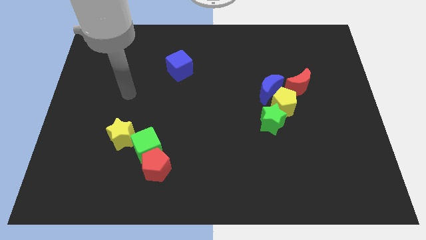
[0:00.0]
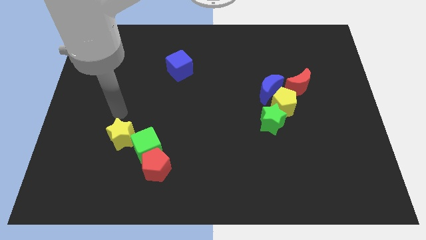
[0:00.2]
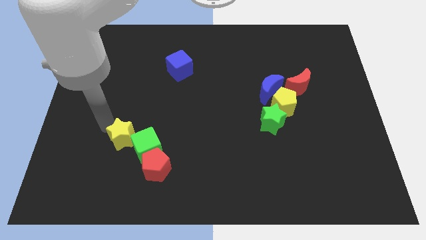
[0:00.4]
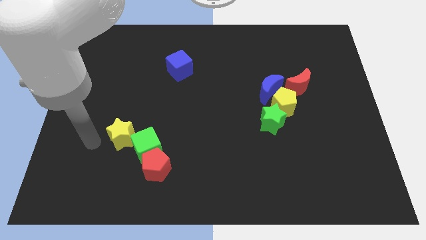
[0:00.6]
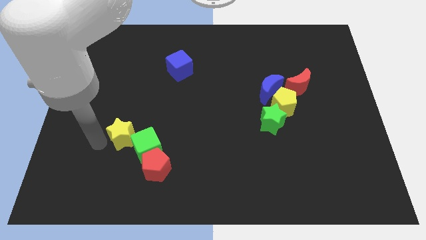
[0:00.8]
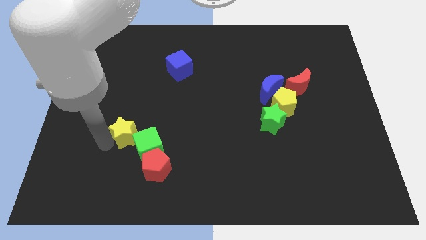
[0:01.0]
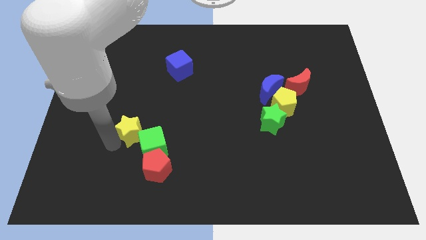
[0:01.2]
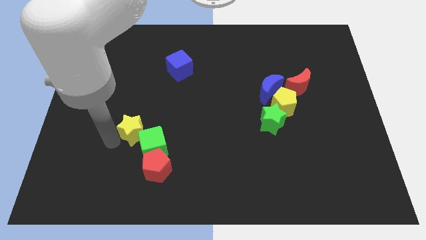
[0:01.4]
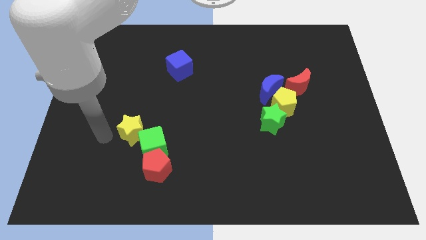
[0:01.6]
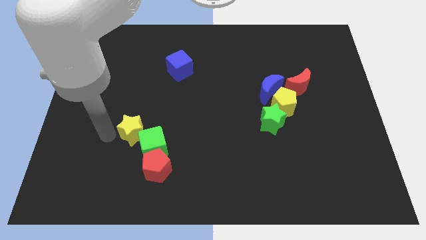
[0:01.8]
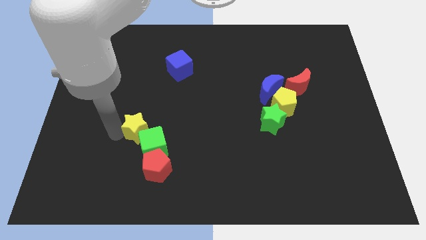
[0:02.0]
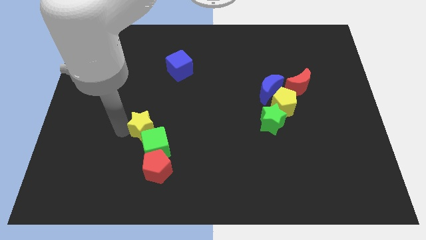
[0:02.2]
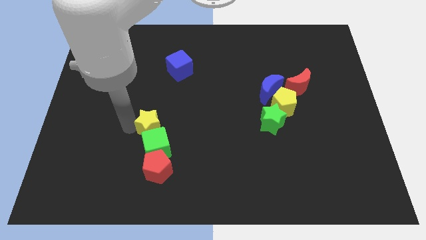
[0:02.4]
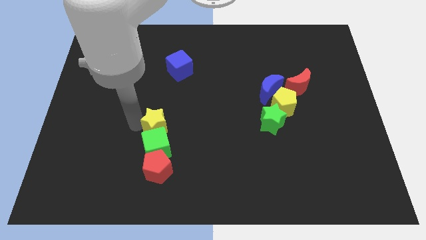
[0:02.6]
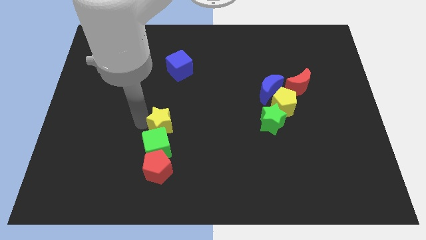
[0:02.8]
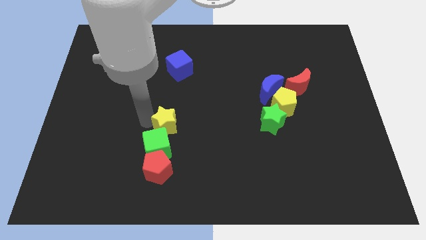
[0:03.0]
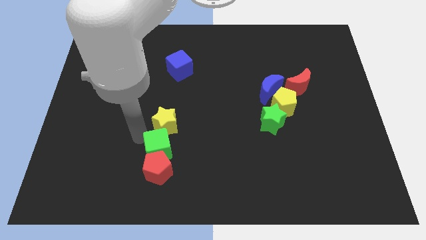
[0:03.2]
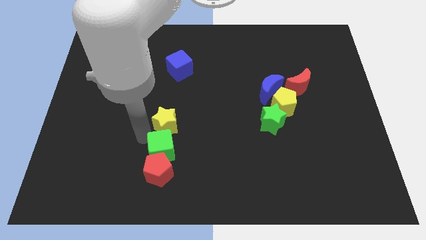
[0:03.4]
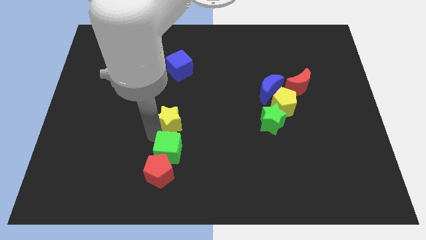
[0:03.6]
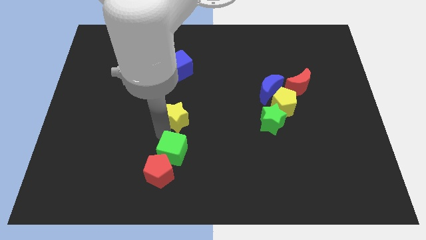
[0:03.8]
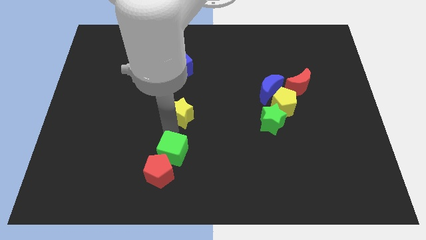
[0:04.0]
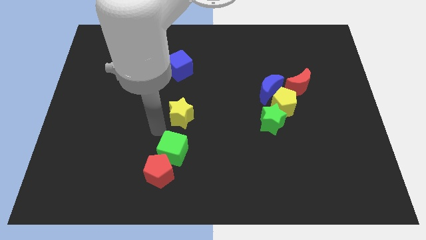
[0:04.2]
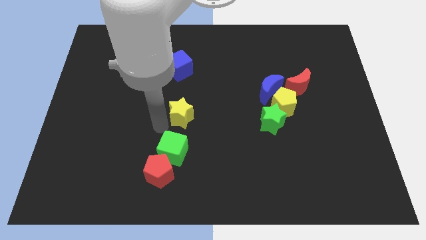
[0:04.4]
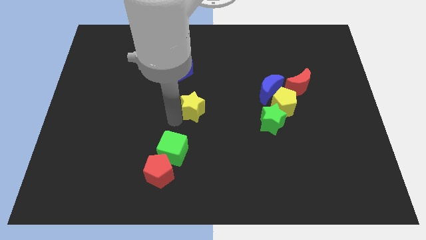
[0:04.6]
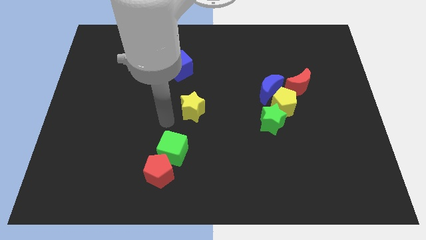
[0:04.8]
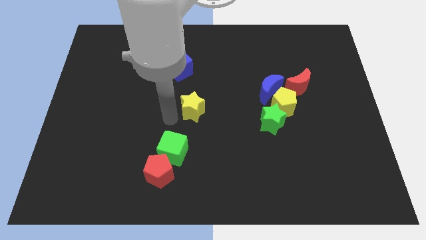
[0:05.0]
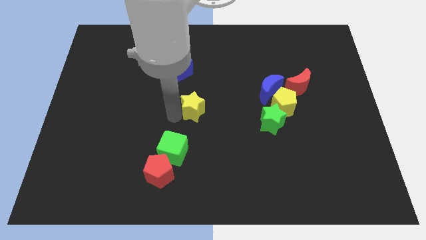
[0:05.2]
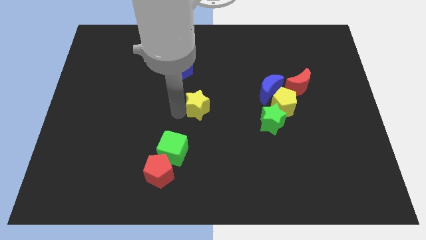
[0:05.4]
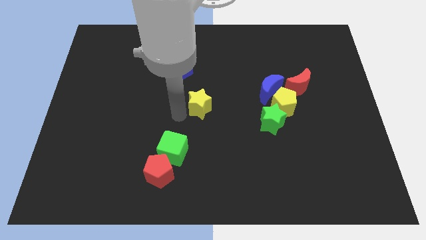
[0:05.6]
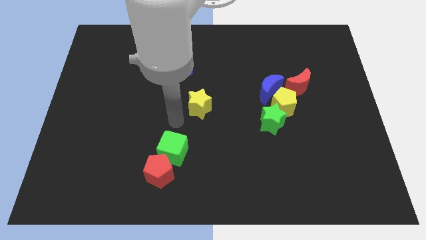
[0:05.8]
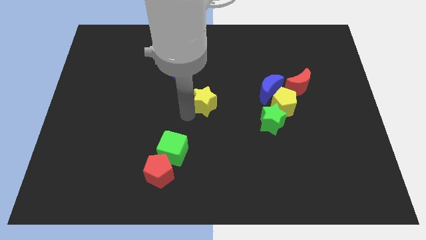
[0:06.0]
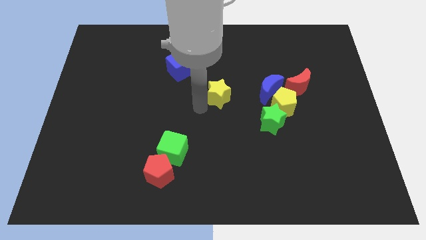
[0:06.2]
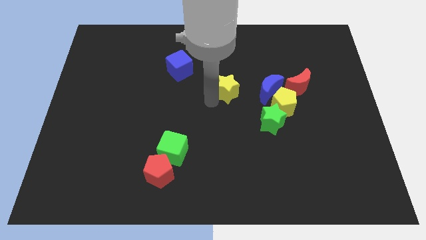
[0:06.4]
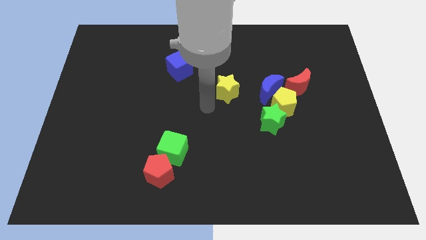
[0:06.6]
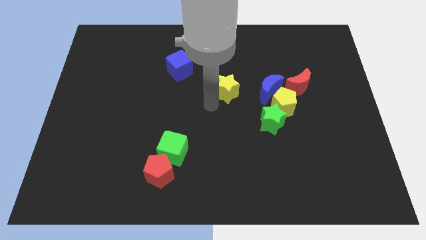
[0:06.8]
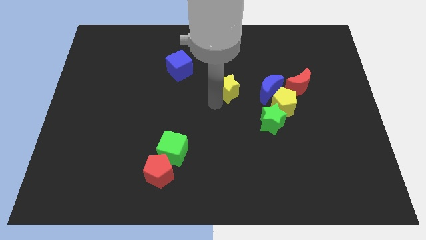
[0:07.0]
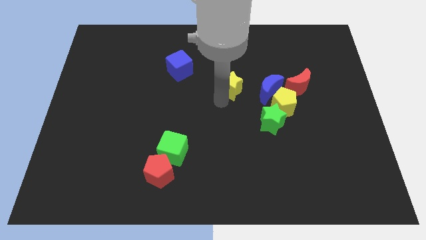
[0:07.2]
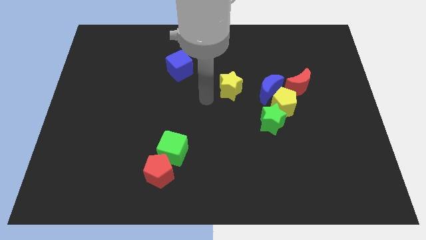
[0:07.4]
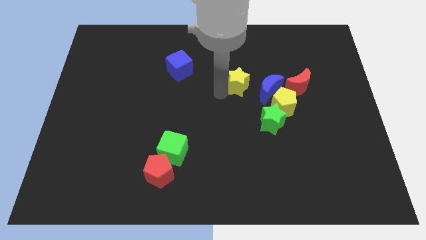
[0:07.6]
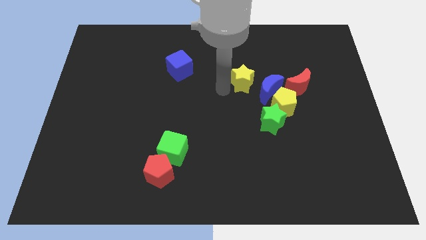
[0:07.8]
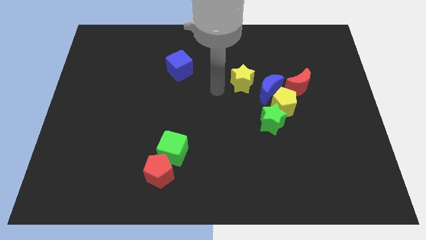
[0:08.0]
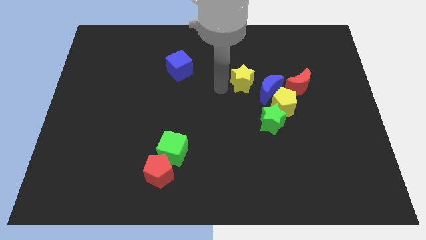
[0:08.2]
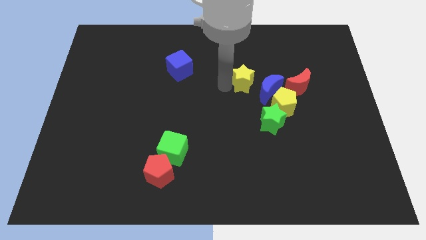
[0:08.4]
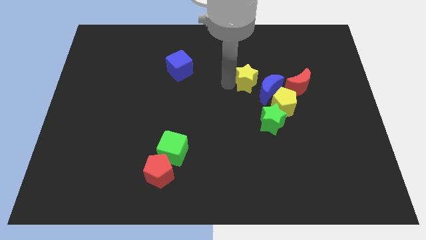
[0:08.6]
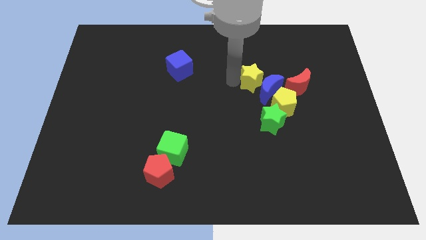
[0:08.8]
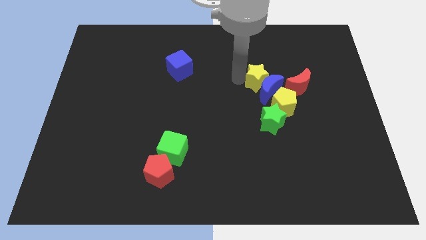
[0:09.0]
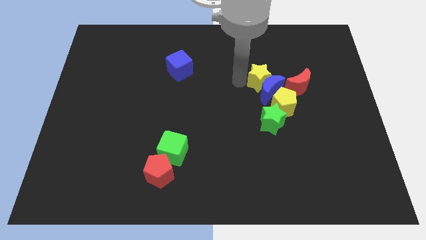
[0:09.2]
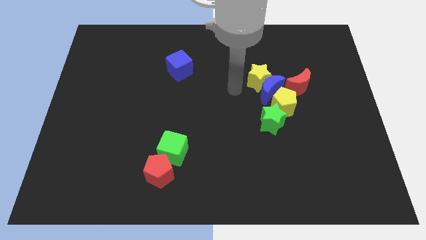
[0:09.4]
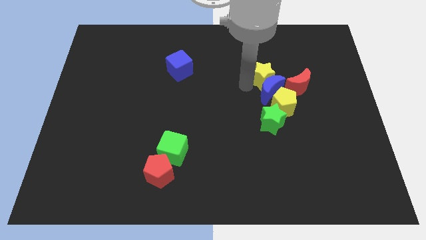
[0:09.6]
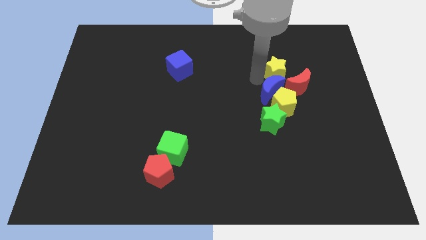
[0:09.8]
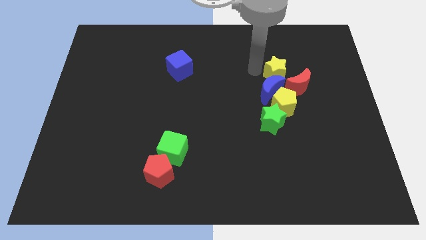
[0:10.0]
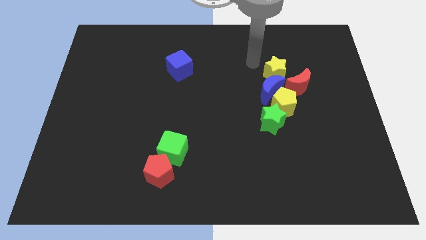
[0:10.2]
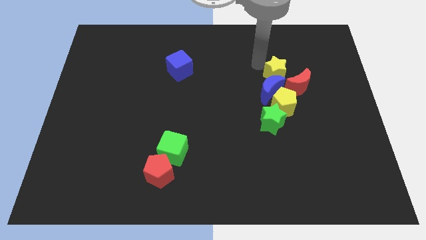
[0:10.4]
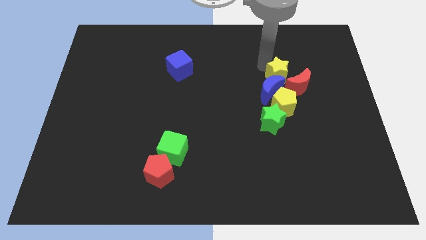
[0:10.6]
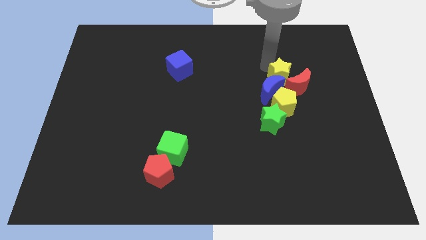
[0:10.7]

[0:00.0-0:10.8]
move the yellow star to the red moon

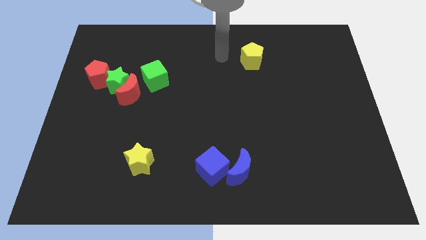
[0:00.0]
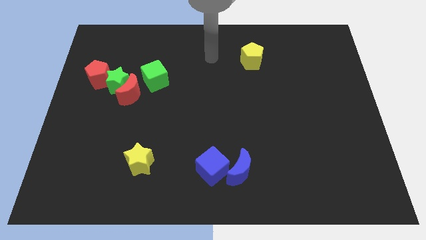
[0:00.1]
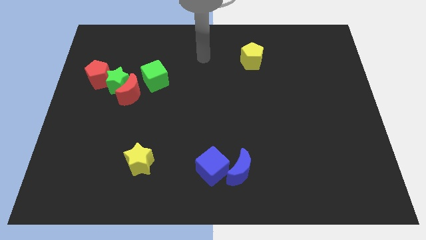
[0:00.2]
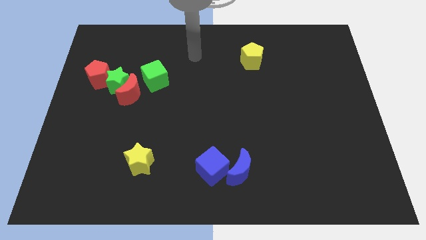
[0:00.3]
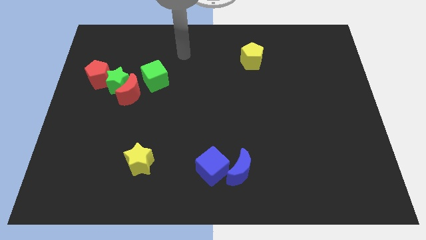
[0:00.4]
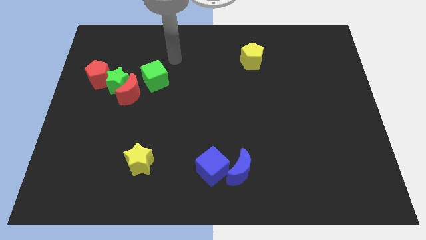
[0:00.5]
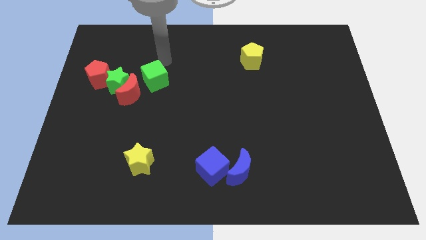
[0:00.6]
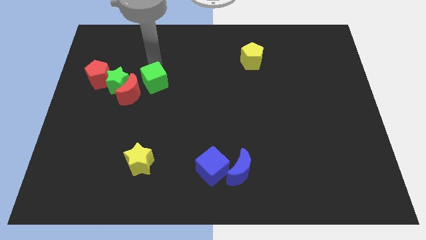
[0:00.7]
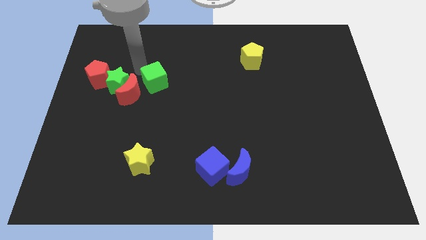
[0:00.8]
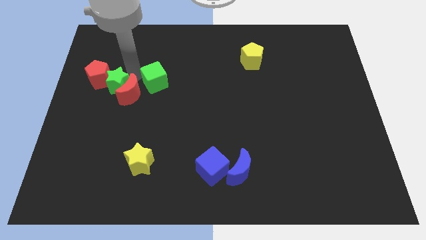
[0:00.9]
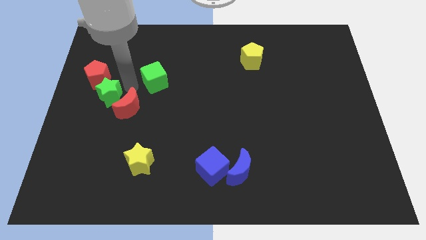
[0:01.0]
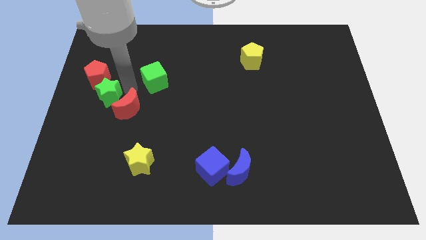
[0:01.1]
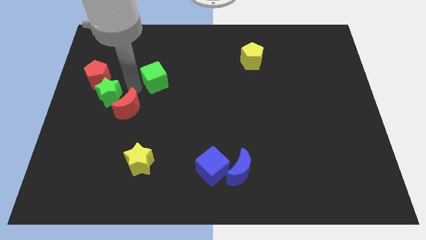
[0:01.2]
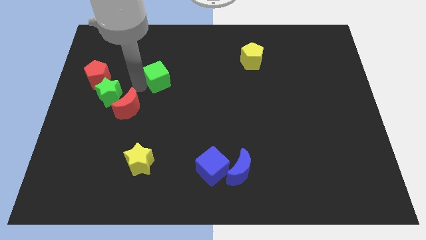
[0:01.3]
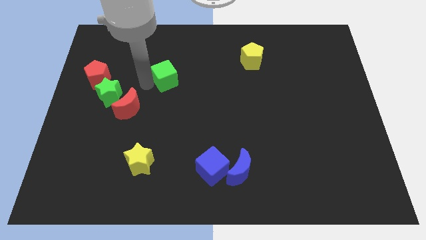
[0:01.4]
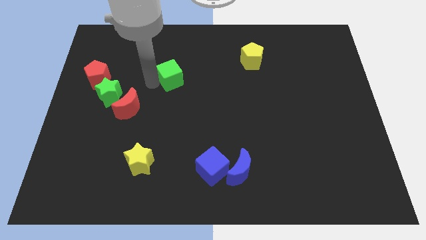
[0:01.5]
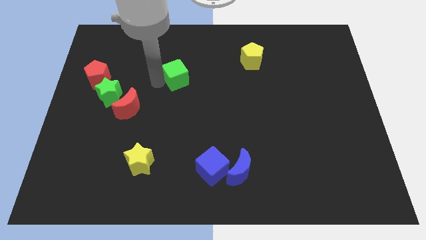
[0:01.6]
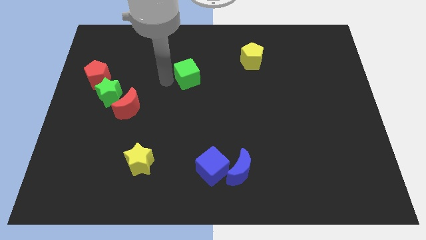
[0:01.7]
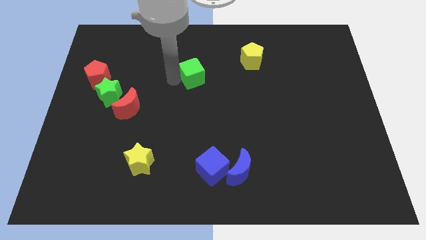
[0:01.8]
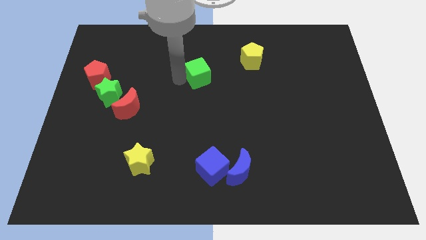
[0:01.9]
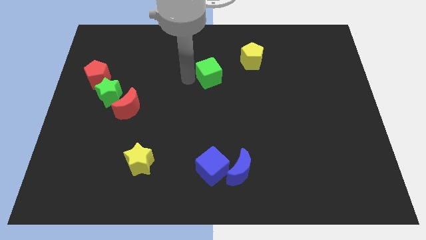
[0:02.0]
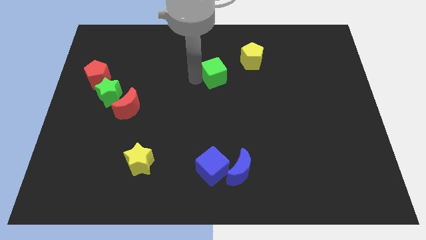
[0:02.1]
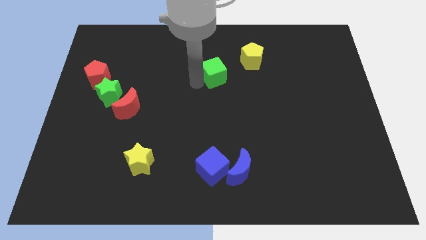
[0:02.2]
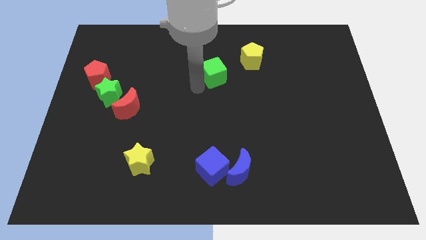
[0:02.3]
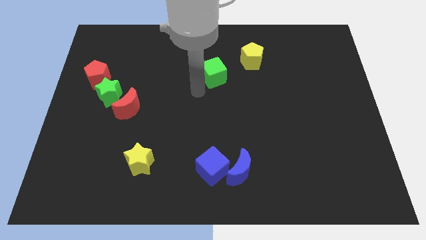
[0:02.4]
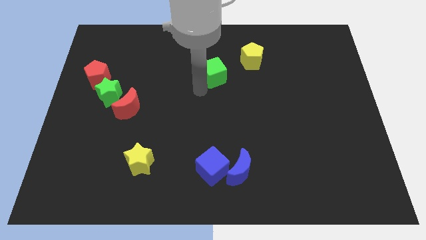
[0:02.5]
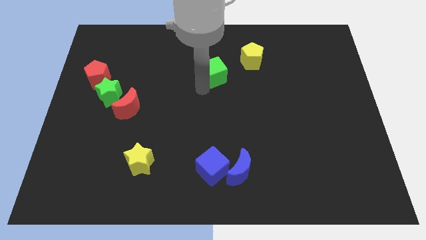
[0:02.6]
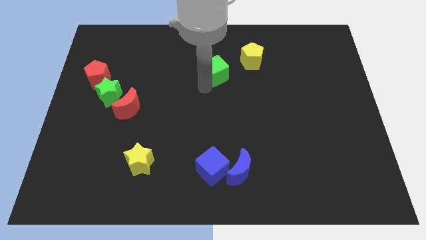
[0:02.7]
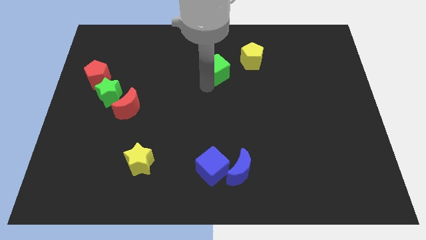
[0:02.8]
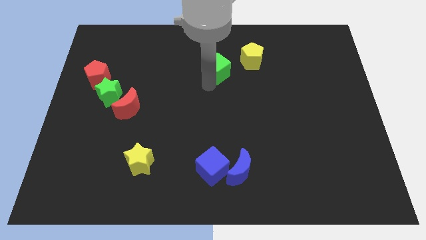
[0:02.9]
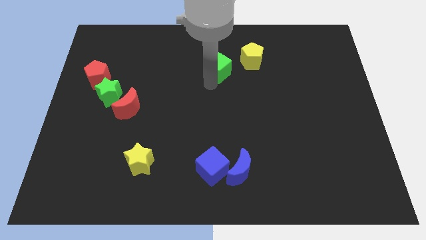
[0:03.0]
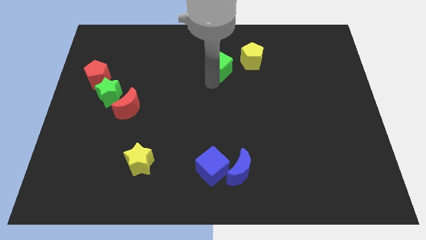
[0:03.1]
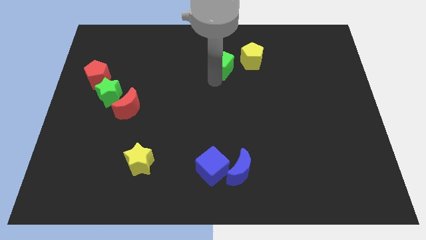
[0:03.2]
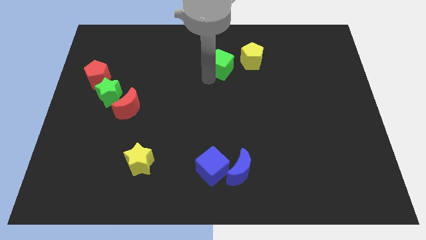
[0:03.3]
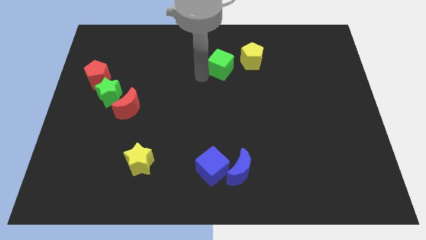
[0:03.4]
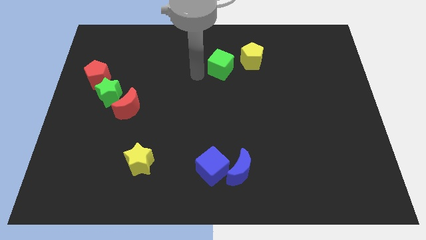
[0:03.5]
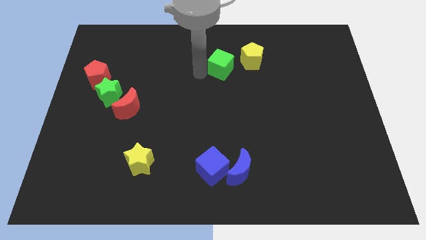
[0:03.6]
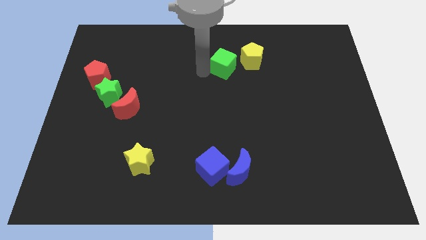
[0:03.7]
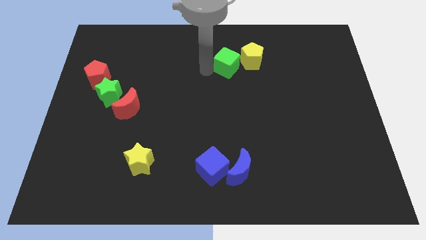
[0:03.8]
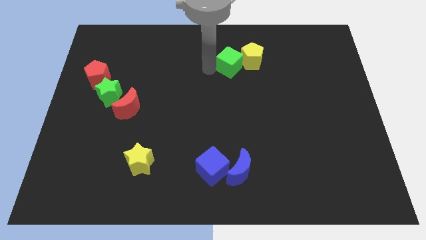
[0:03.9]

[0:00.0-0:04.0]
slide the green cube to the yellow pentagon
